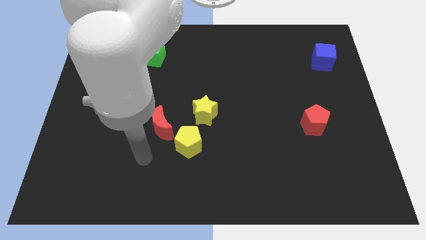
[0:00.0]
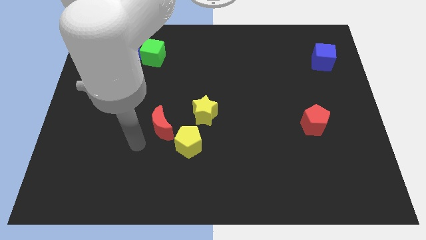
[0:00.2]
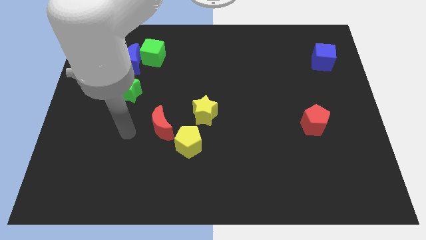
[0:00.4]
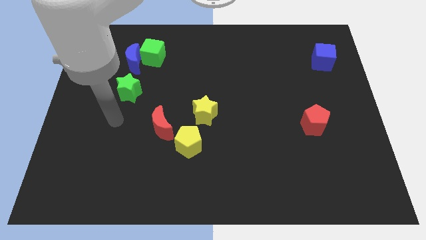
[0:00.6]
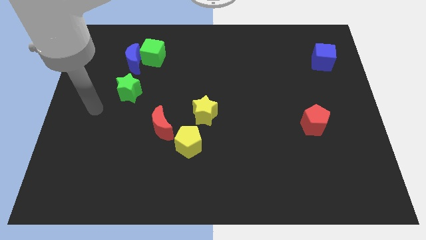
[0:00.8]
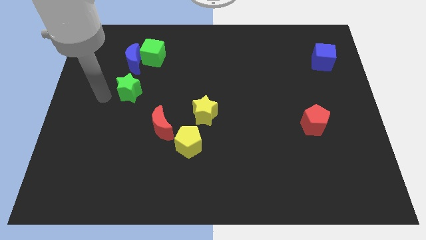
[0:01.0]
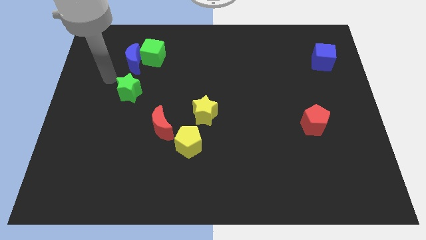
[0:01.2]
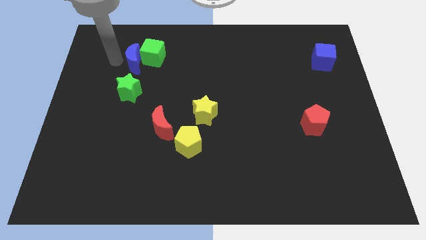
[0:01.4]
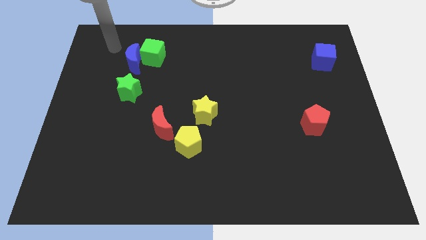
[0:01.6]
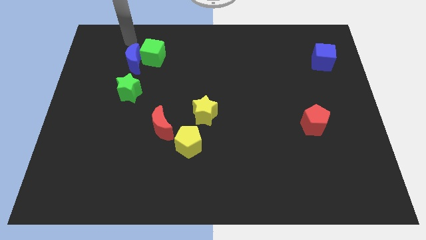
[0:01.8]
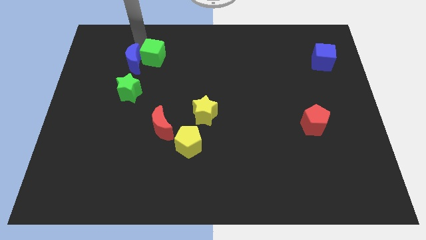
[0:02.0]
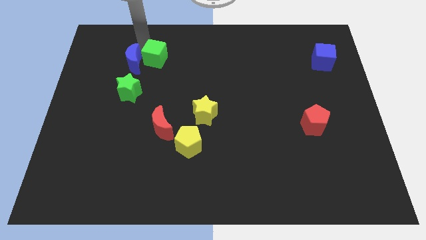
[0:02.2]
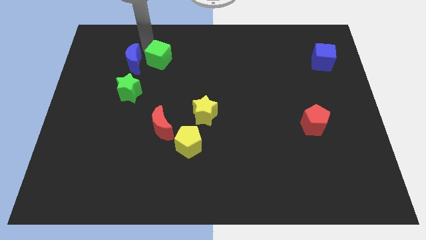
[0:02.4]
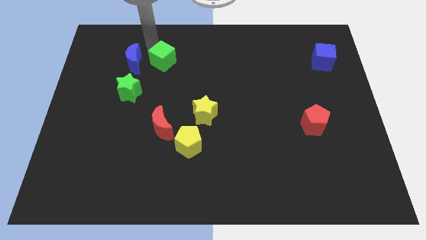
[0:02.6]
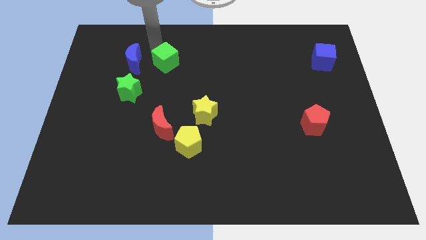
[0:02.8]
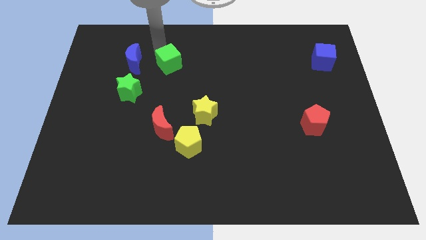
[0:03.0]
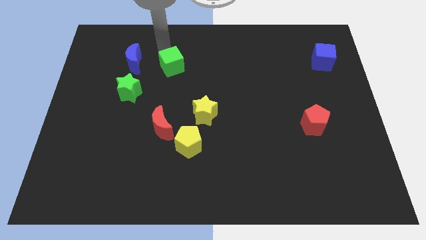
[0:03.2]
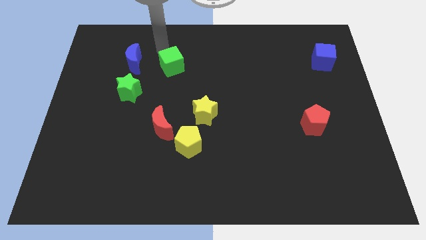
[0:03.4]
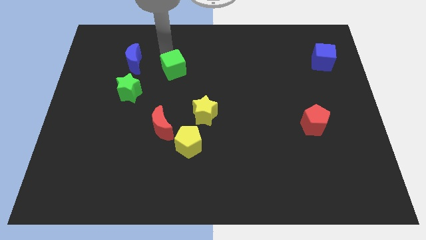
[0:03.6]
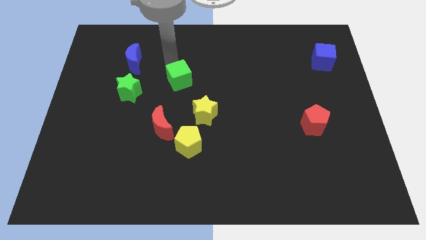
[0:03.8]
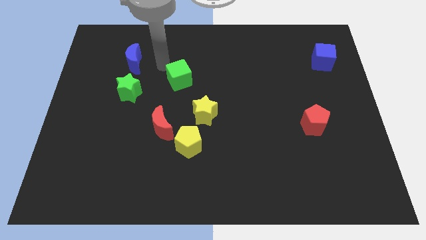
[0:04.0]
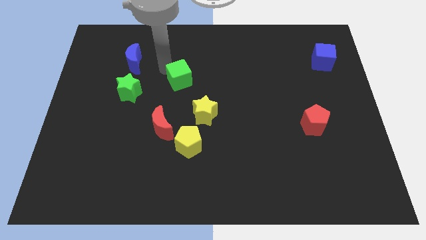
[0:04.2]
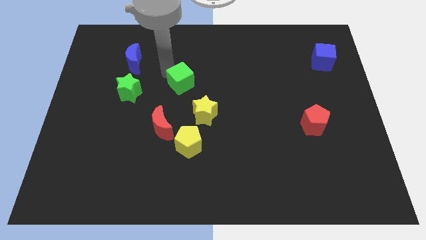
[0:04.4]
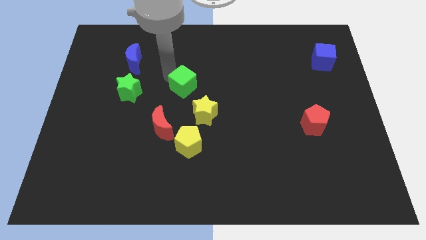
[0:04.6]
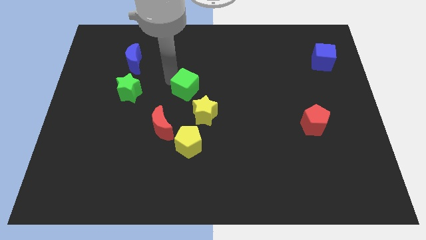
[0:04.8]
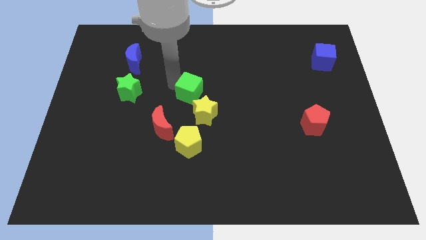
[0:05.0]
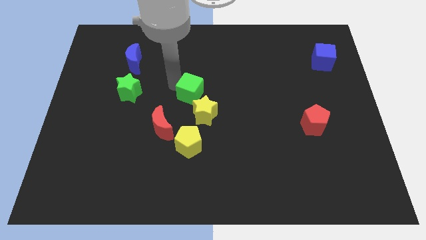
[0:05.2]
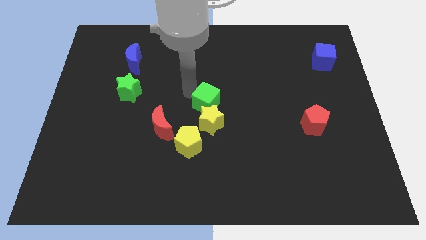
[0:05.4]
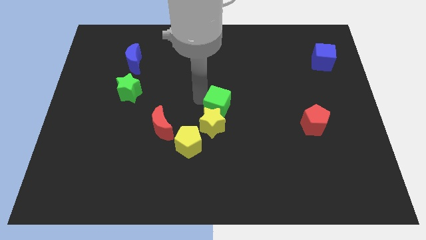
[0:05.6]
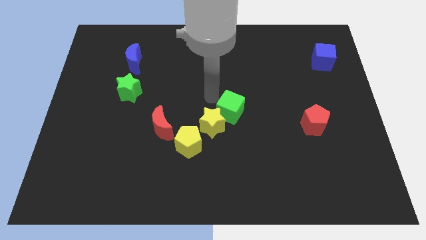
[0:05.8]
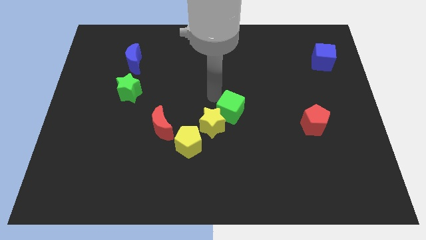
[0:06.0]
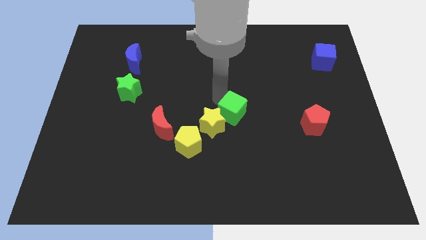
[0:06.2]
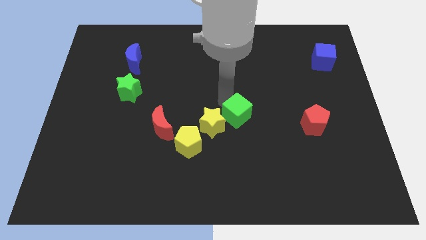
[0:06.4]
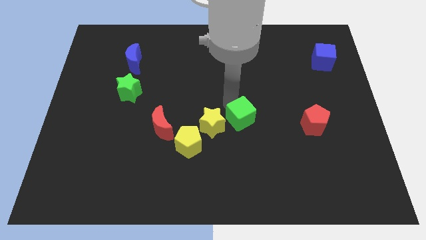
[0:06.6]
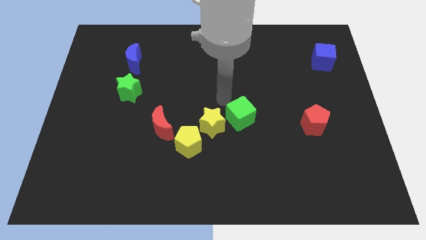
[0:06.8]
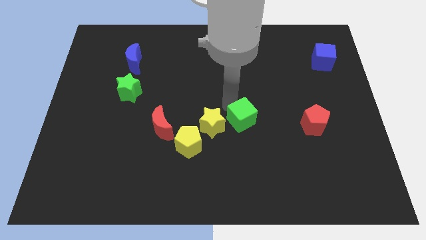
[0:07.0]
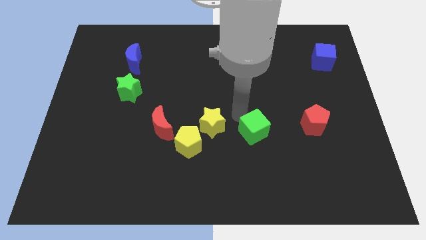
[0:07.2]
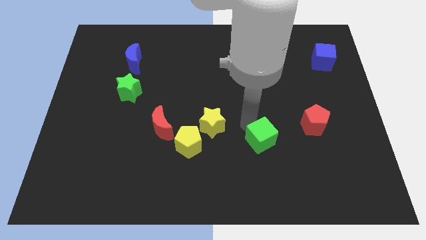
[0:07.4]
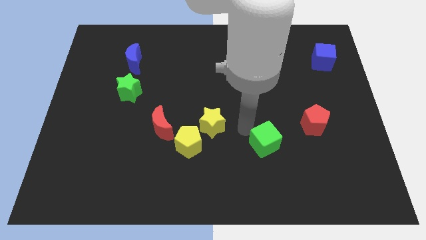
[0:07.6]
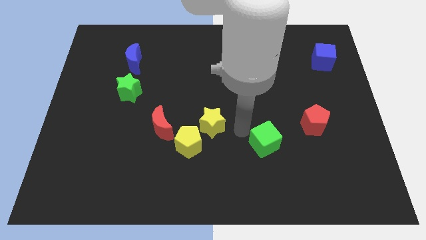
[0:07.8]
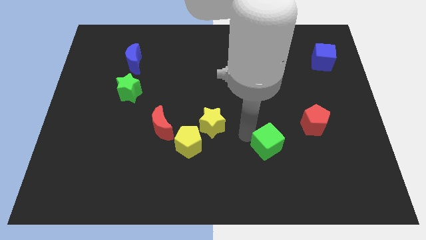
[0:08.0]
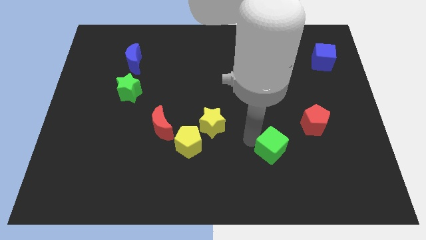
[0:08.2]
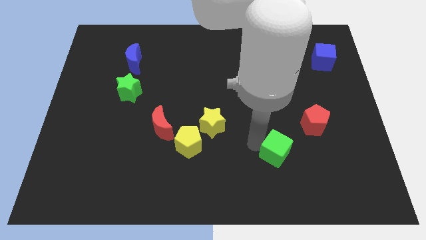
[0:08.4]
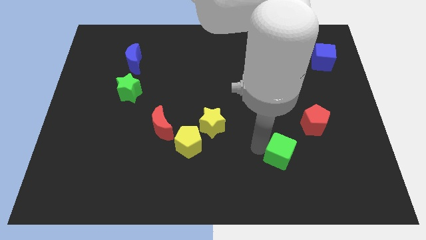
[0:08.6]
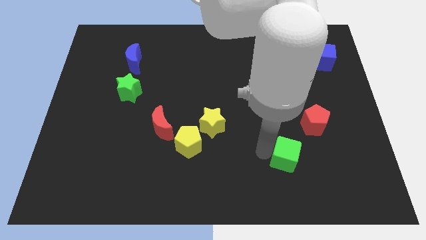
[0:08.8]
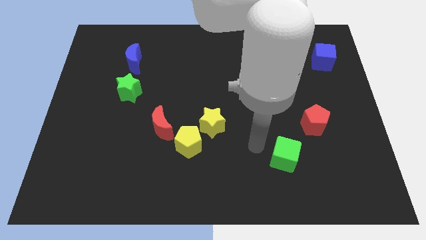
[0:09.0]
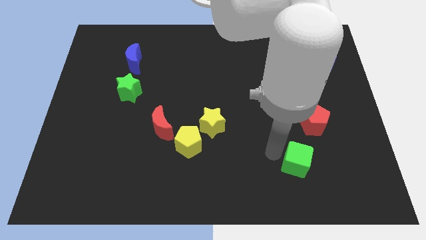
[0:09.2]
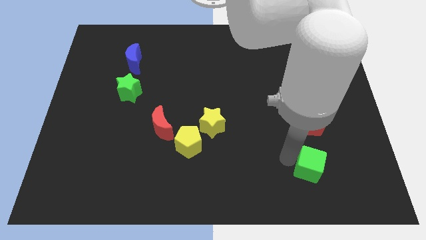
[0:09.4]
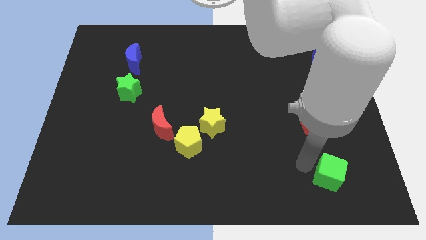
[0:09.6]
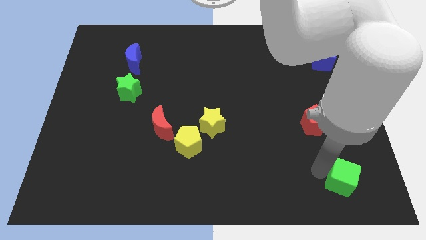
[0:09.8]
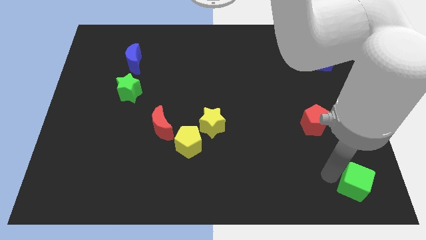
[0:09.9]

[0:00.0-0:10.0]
push the green cube to the lower right corner

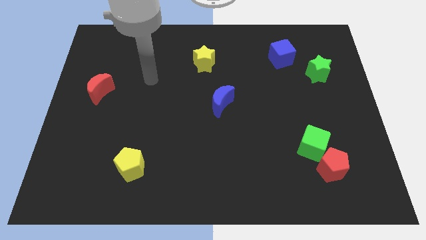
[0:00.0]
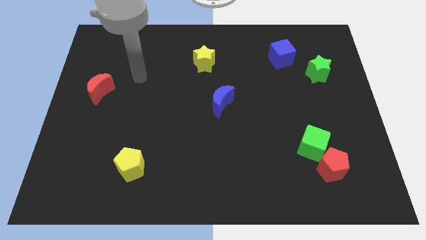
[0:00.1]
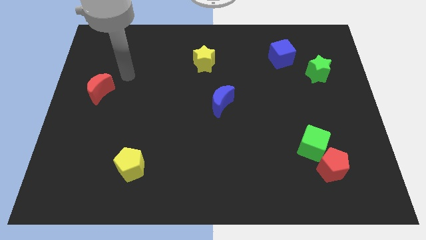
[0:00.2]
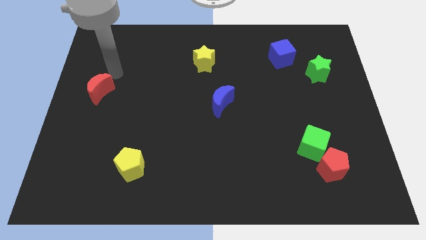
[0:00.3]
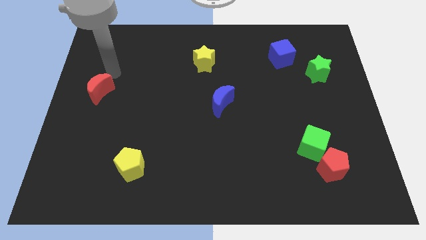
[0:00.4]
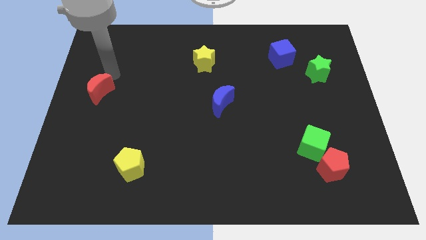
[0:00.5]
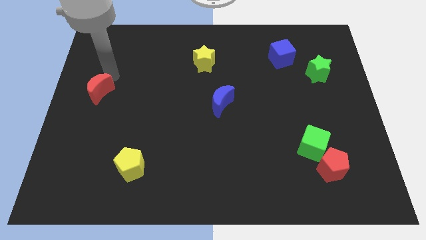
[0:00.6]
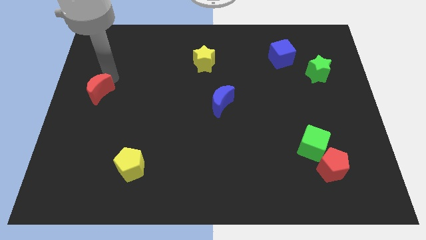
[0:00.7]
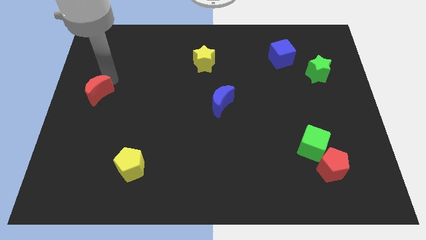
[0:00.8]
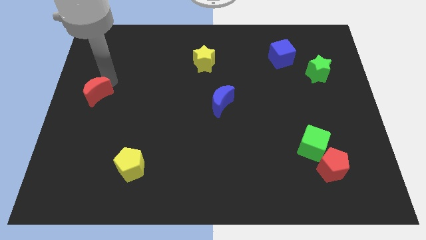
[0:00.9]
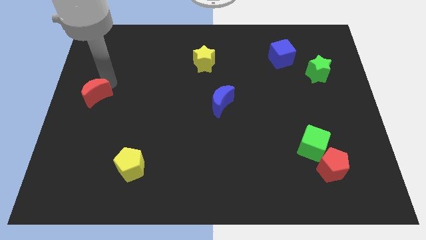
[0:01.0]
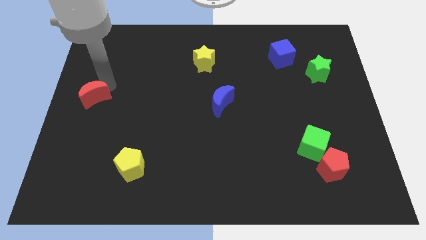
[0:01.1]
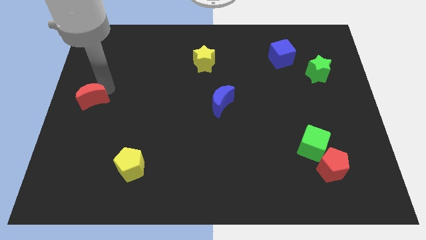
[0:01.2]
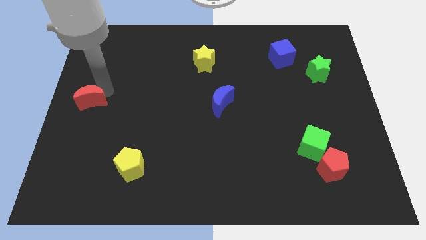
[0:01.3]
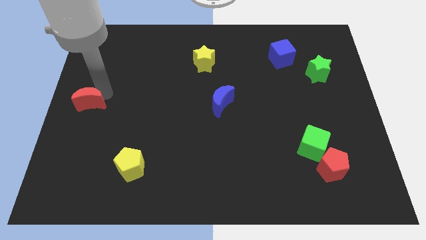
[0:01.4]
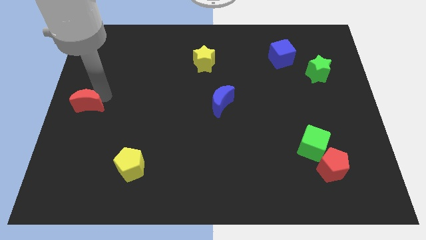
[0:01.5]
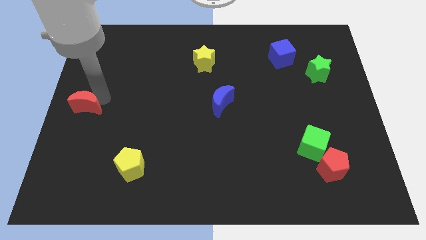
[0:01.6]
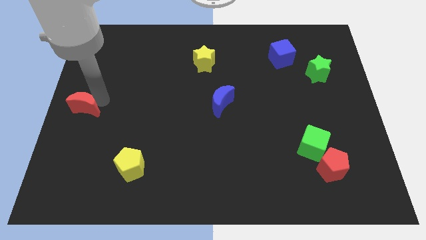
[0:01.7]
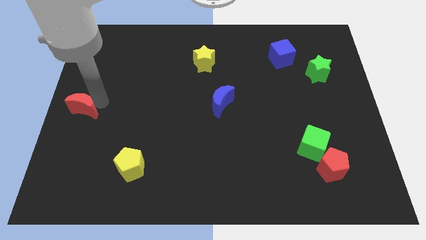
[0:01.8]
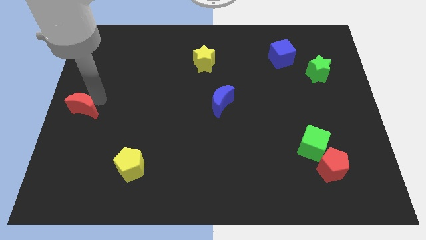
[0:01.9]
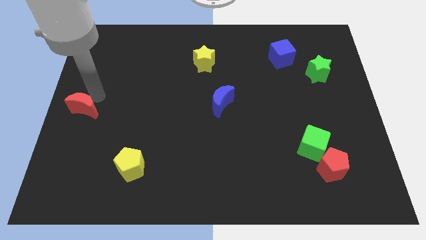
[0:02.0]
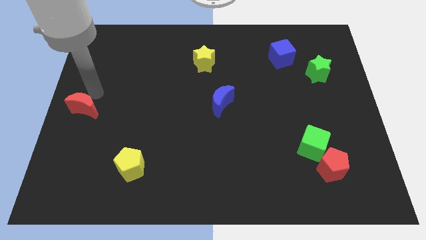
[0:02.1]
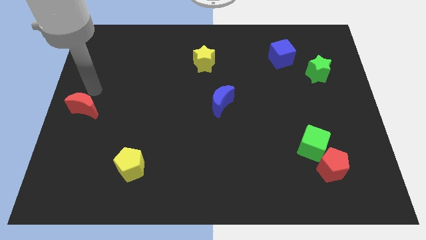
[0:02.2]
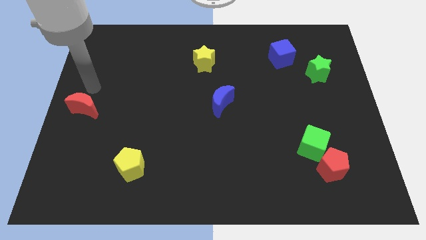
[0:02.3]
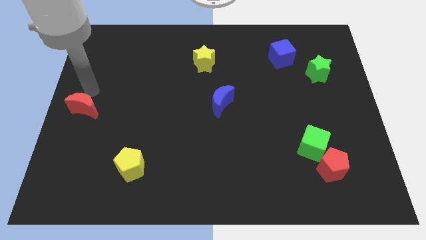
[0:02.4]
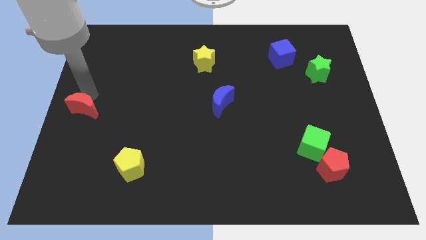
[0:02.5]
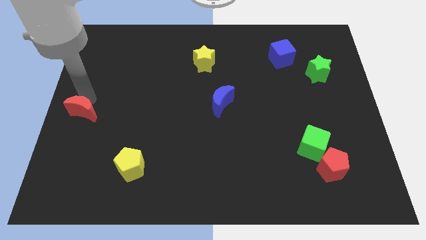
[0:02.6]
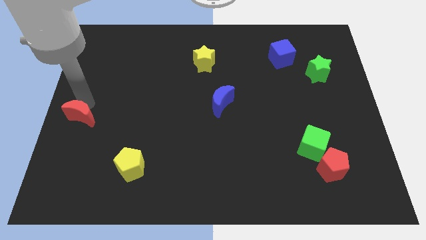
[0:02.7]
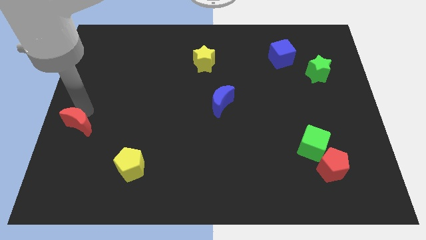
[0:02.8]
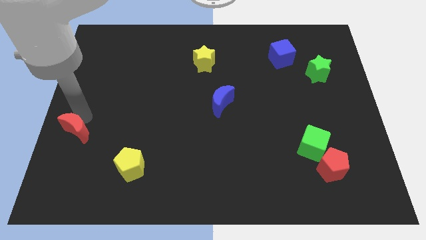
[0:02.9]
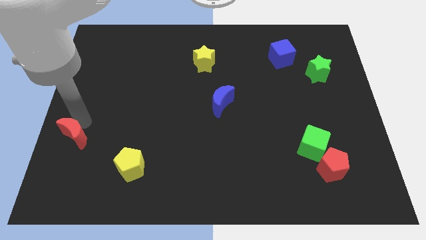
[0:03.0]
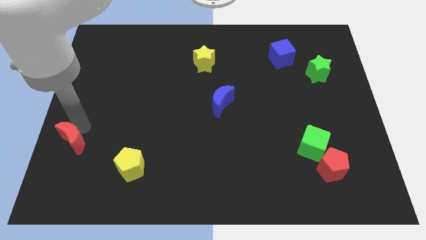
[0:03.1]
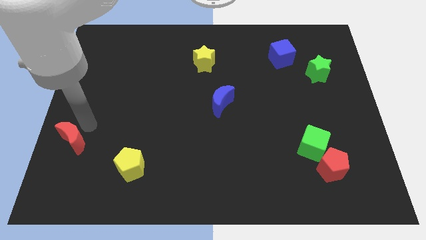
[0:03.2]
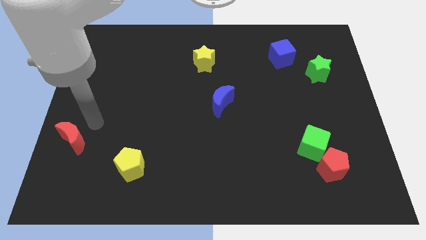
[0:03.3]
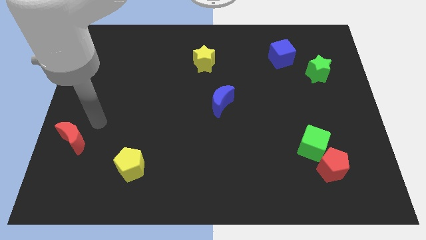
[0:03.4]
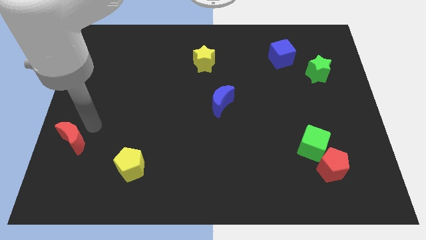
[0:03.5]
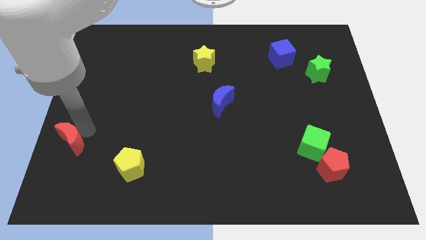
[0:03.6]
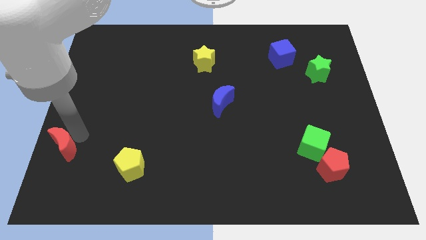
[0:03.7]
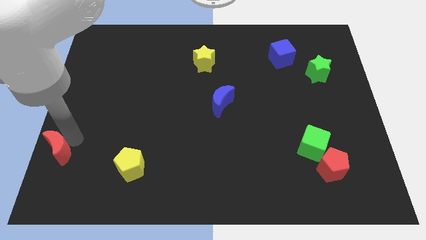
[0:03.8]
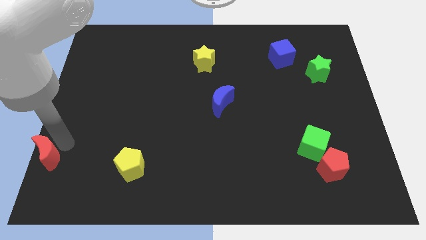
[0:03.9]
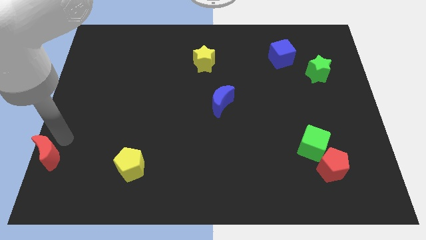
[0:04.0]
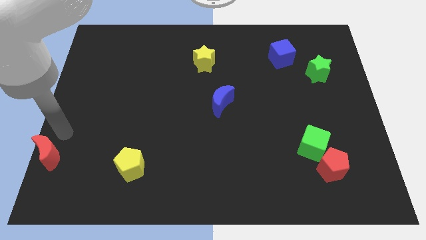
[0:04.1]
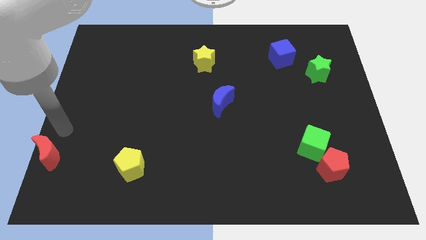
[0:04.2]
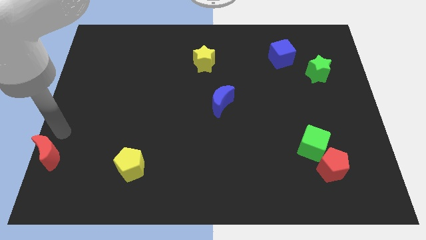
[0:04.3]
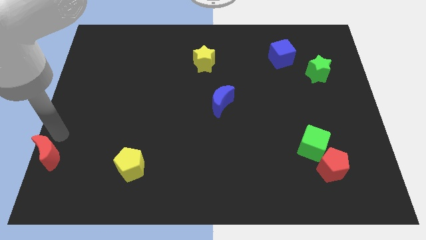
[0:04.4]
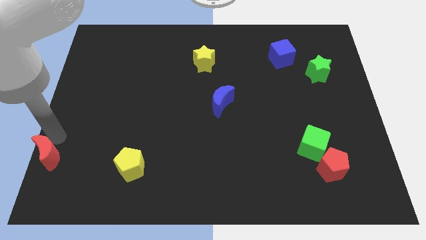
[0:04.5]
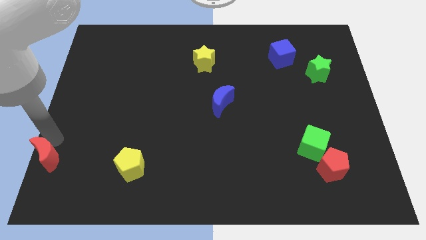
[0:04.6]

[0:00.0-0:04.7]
move the red moon to the bottom left corner
